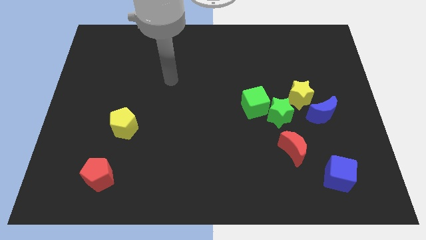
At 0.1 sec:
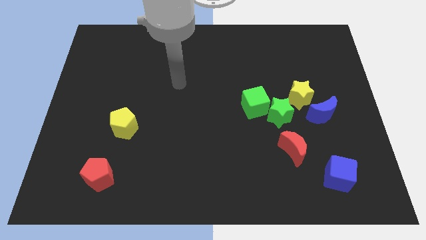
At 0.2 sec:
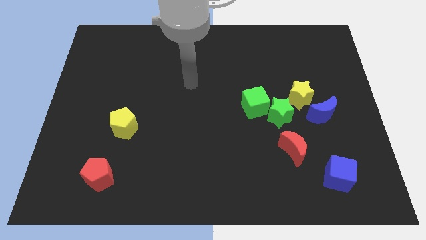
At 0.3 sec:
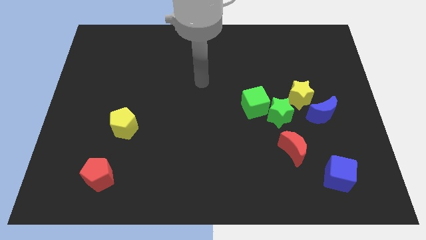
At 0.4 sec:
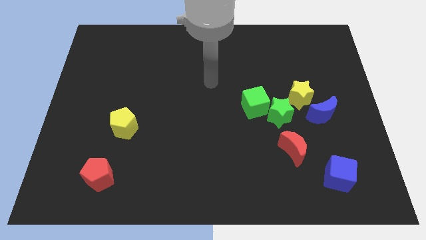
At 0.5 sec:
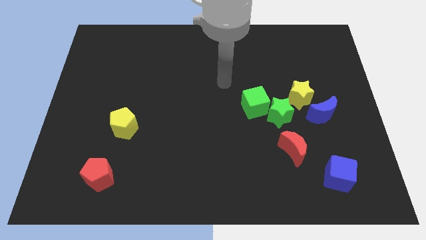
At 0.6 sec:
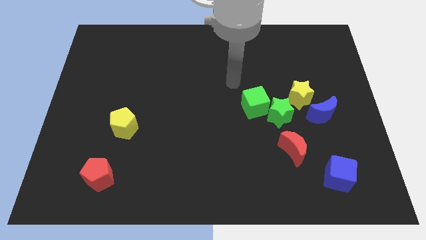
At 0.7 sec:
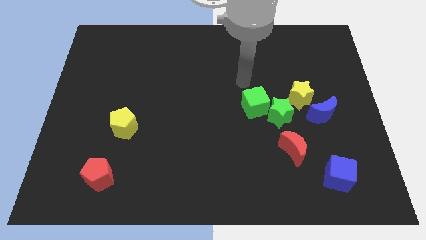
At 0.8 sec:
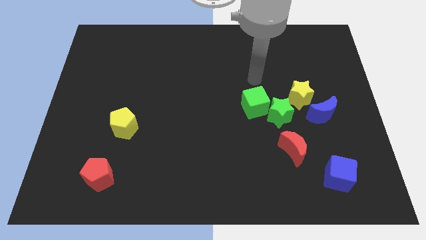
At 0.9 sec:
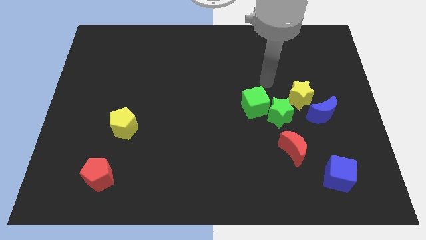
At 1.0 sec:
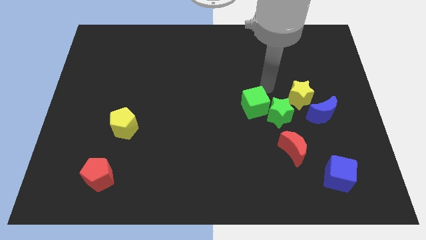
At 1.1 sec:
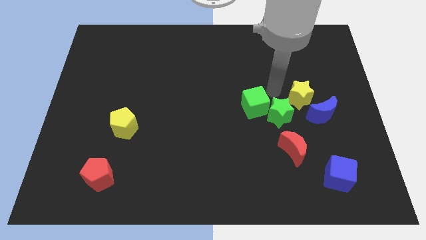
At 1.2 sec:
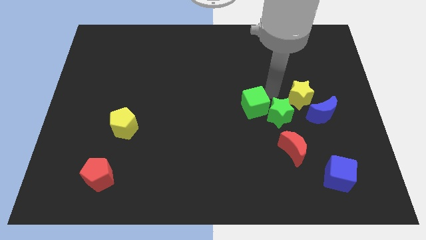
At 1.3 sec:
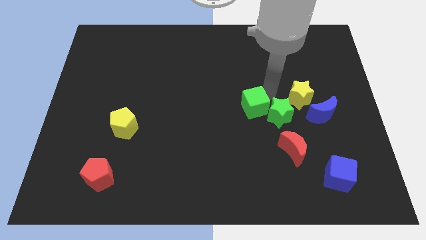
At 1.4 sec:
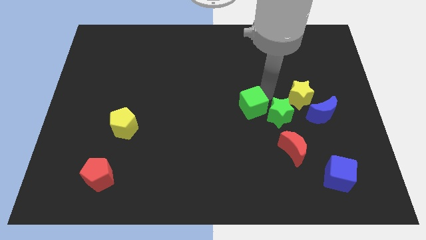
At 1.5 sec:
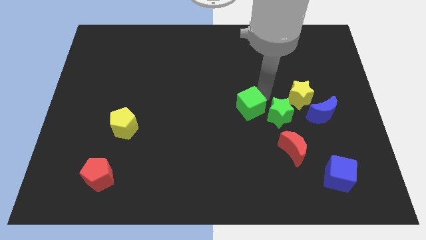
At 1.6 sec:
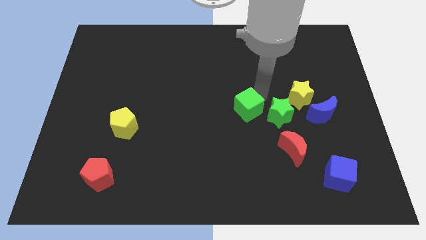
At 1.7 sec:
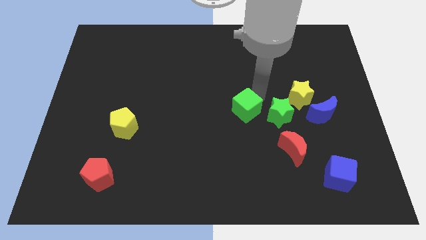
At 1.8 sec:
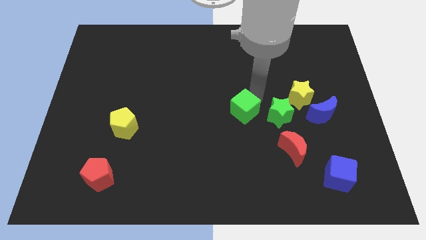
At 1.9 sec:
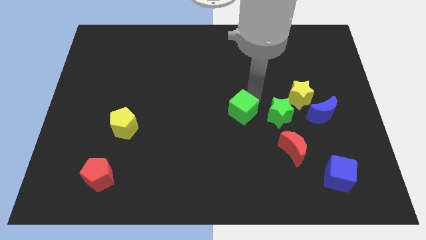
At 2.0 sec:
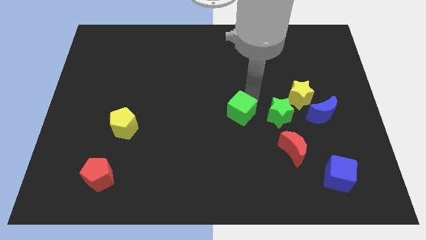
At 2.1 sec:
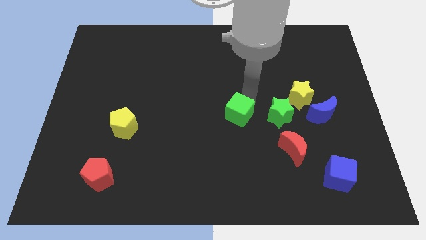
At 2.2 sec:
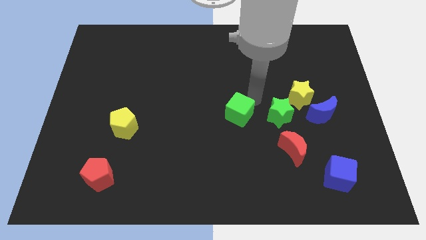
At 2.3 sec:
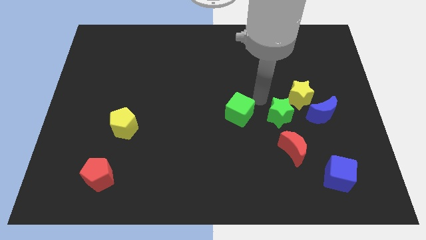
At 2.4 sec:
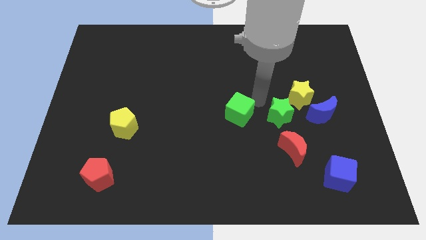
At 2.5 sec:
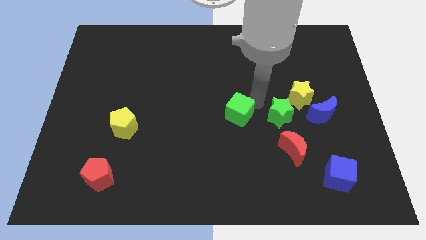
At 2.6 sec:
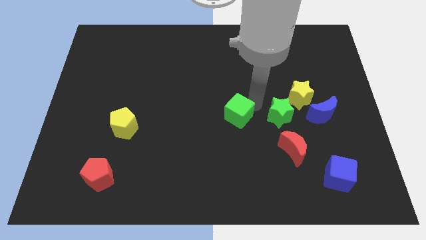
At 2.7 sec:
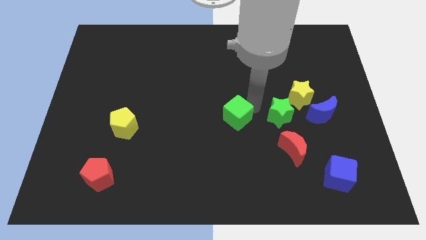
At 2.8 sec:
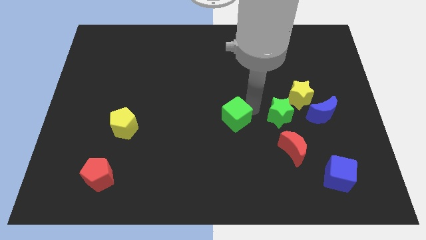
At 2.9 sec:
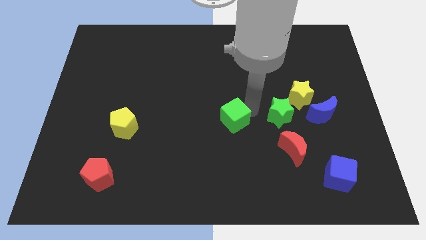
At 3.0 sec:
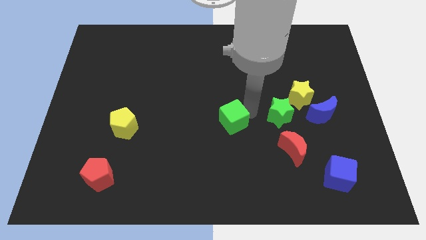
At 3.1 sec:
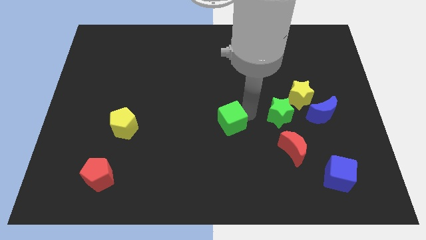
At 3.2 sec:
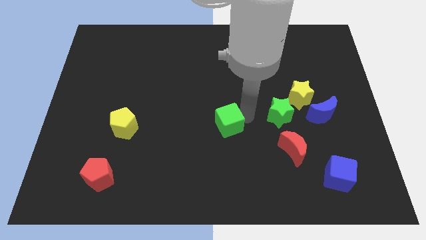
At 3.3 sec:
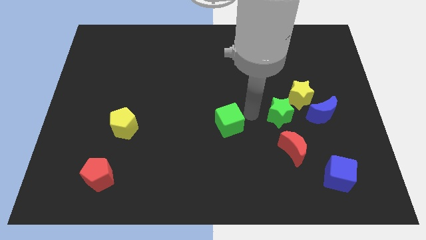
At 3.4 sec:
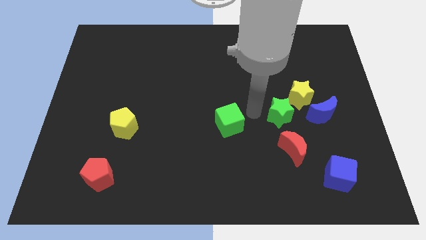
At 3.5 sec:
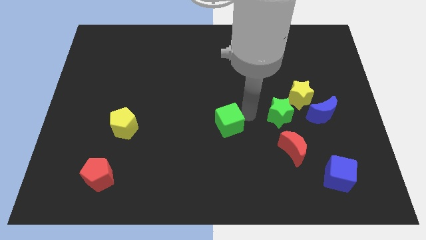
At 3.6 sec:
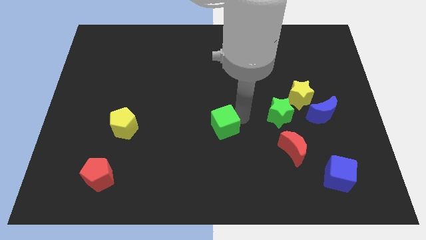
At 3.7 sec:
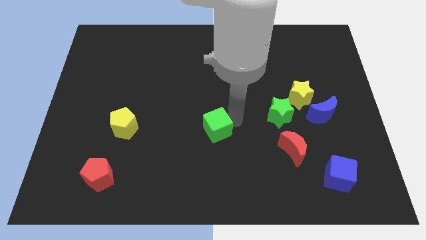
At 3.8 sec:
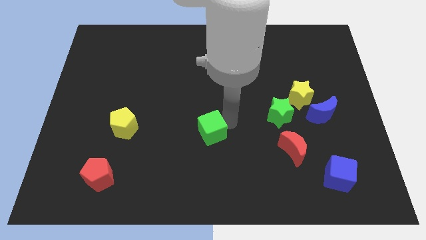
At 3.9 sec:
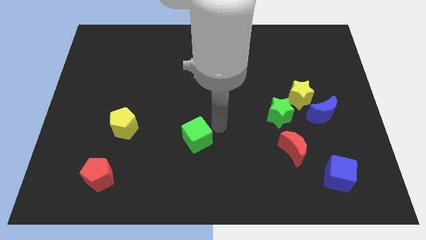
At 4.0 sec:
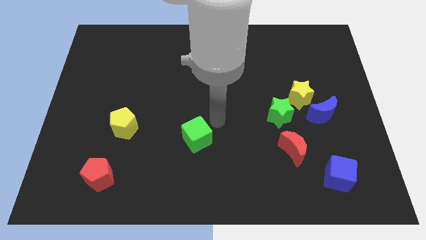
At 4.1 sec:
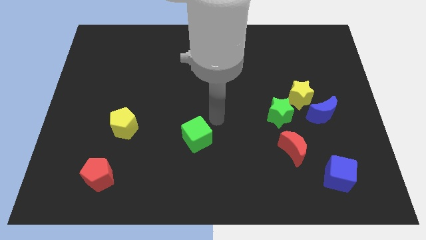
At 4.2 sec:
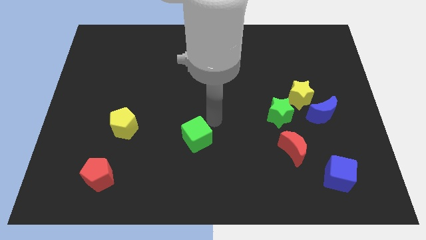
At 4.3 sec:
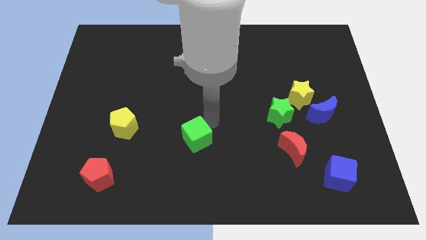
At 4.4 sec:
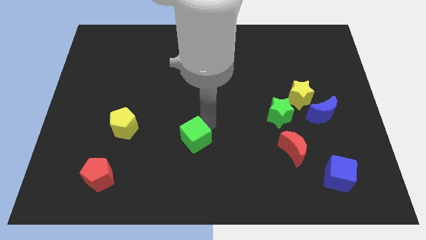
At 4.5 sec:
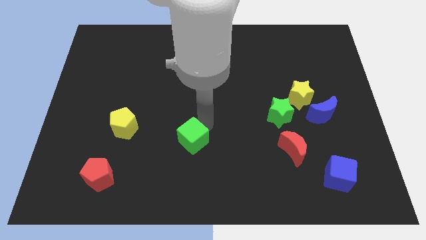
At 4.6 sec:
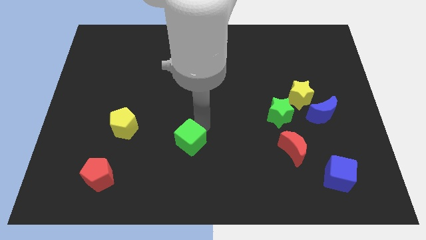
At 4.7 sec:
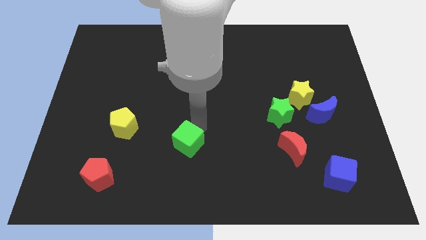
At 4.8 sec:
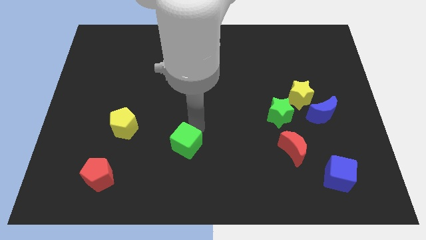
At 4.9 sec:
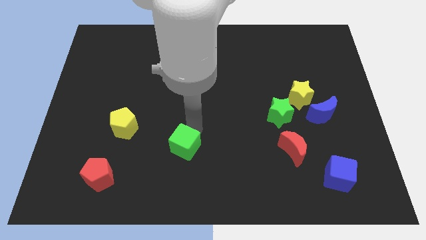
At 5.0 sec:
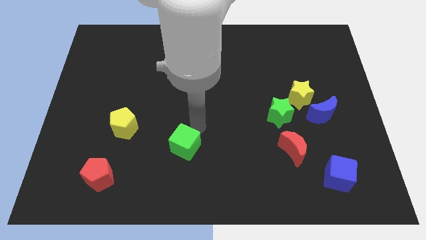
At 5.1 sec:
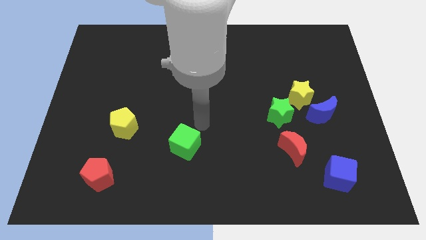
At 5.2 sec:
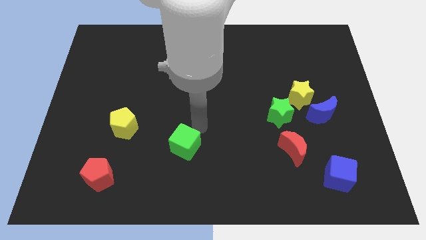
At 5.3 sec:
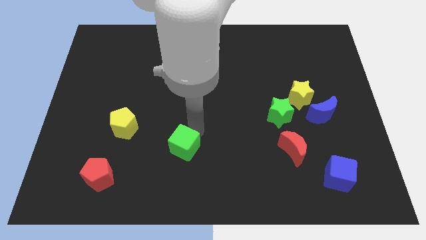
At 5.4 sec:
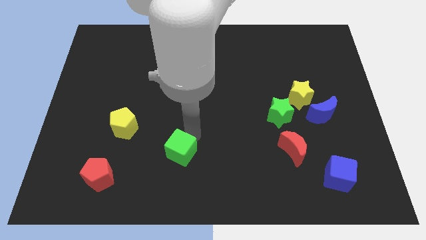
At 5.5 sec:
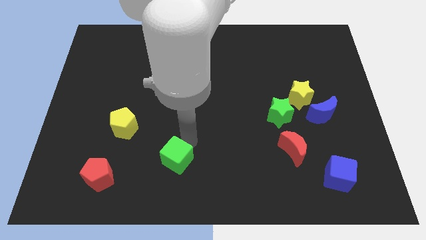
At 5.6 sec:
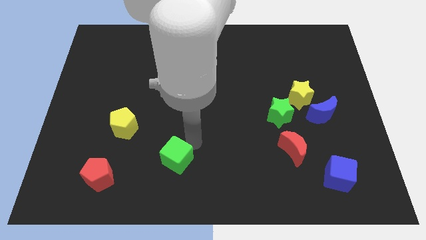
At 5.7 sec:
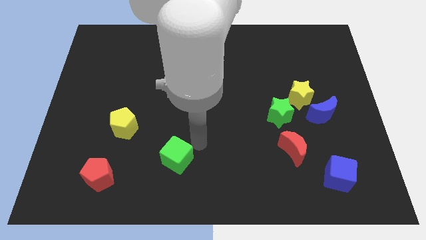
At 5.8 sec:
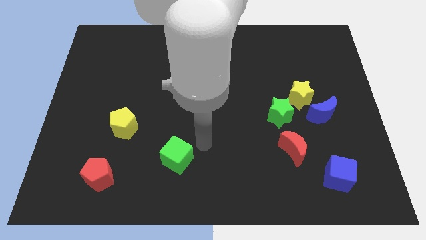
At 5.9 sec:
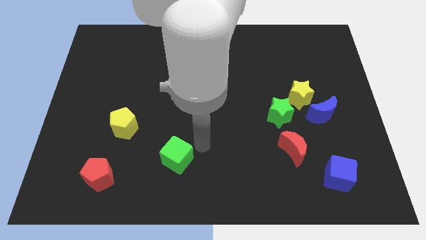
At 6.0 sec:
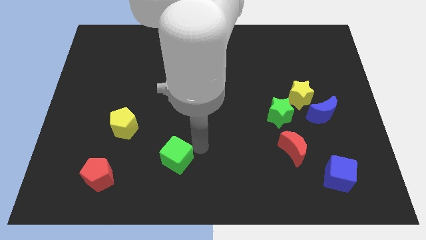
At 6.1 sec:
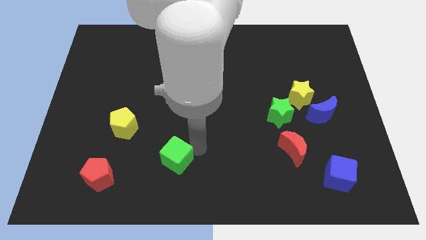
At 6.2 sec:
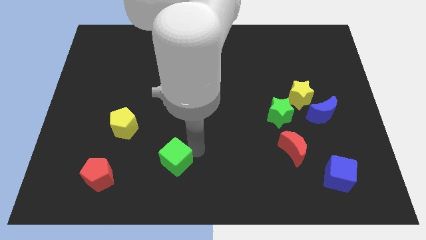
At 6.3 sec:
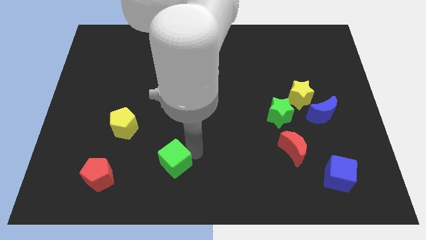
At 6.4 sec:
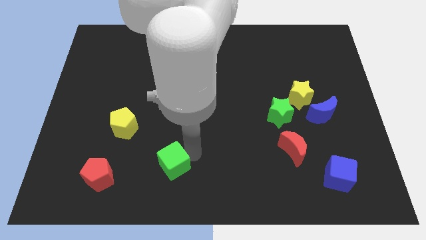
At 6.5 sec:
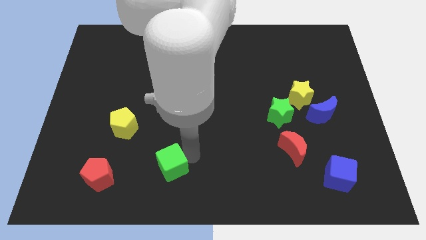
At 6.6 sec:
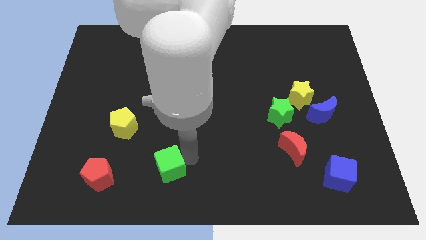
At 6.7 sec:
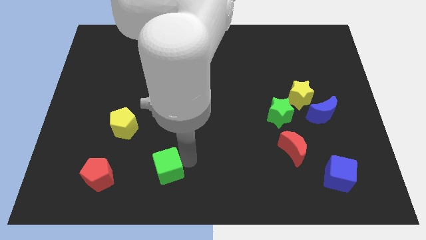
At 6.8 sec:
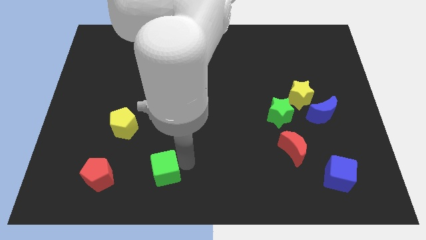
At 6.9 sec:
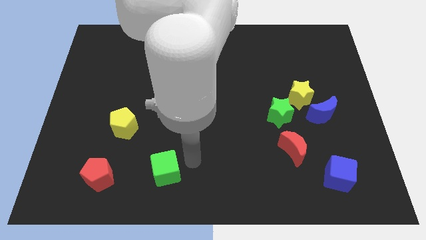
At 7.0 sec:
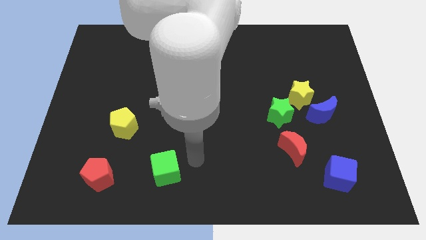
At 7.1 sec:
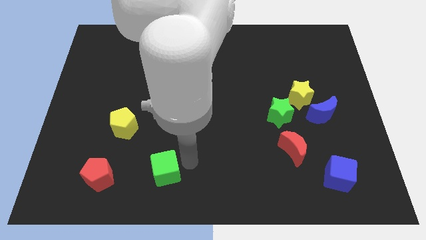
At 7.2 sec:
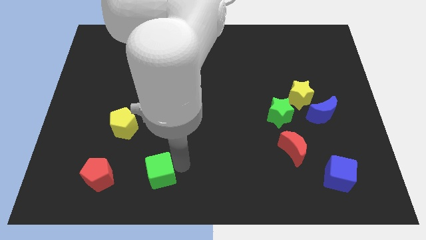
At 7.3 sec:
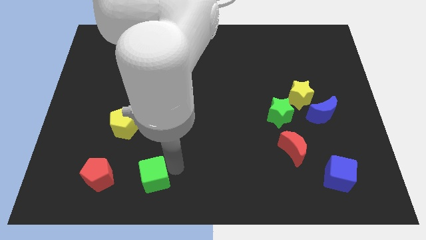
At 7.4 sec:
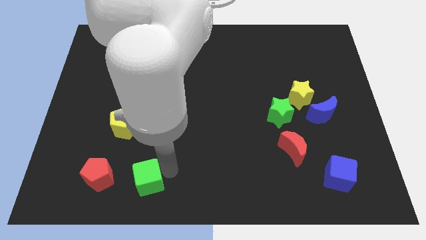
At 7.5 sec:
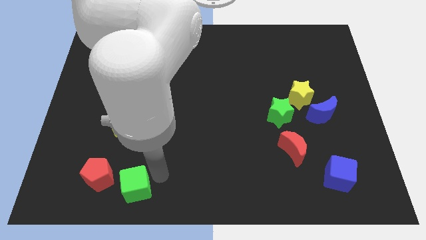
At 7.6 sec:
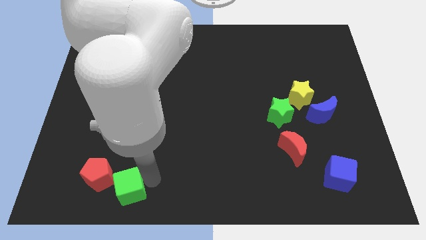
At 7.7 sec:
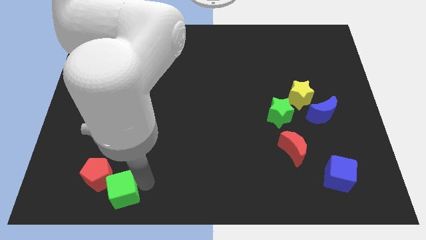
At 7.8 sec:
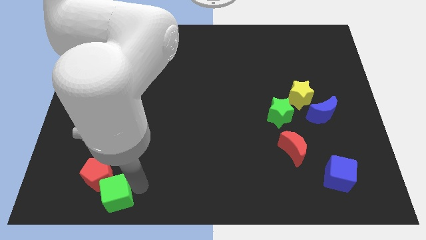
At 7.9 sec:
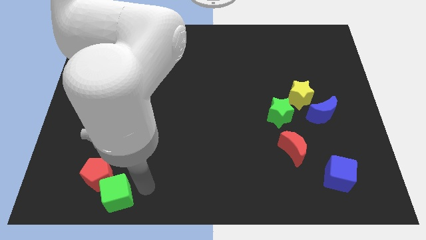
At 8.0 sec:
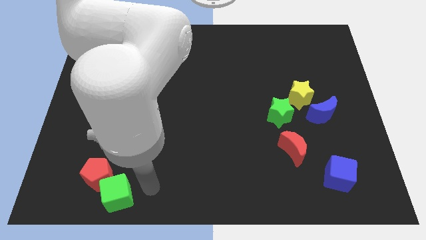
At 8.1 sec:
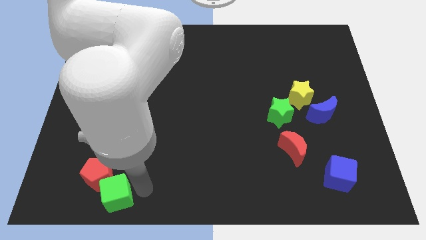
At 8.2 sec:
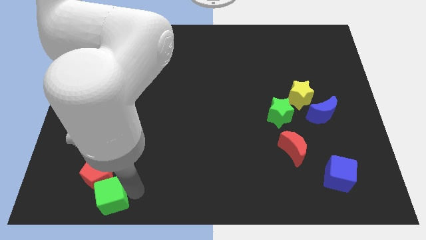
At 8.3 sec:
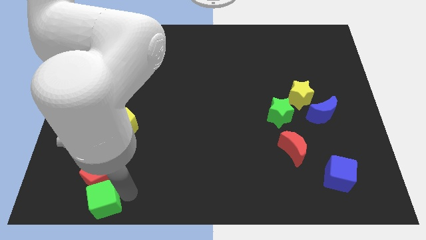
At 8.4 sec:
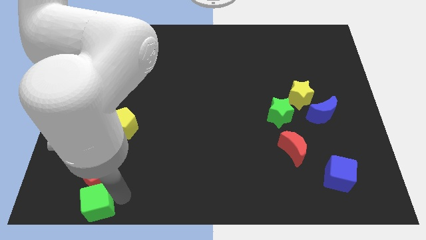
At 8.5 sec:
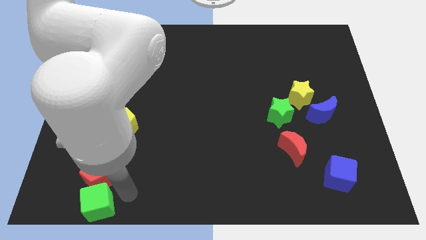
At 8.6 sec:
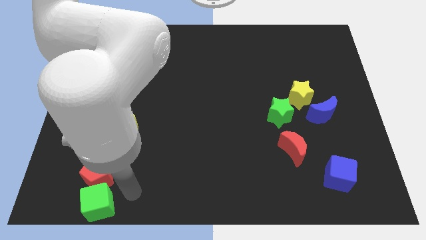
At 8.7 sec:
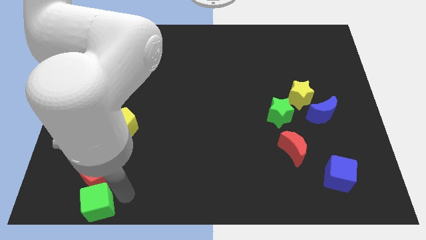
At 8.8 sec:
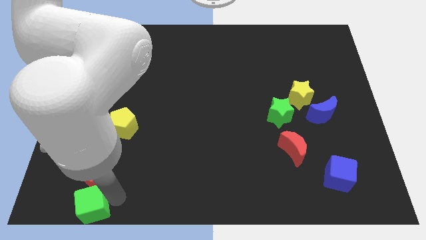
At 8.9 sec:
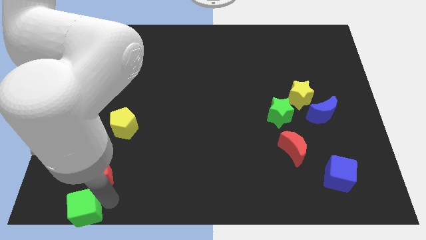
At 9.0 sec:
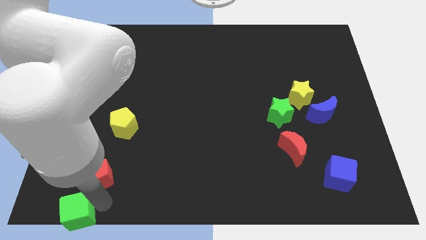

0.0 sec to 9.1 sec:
move the green cube to the bottom left of the board
